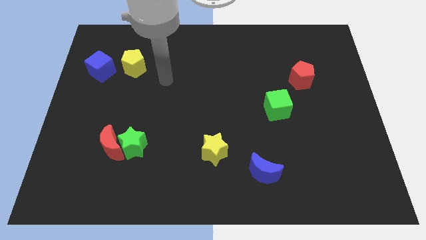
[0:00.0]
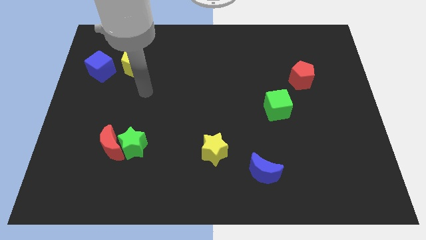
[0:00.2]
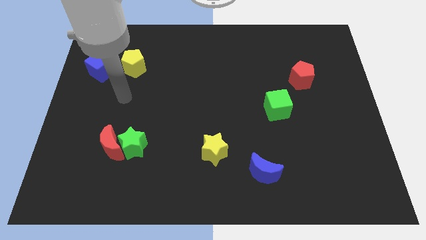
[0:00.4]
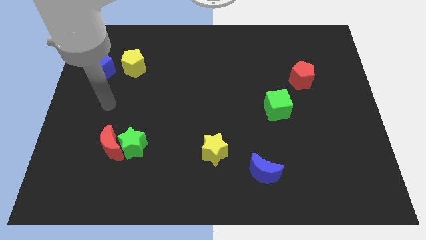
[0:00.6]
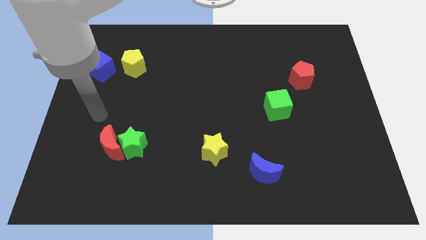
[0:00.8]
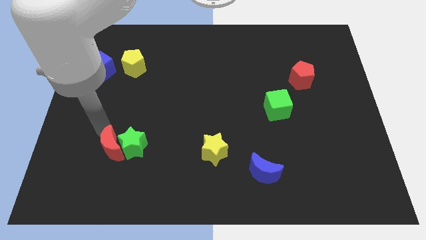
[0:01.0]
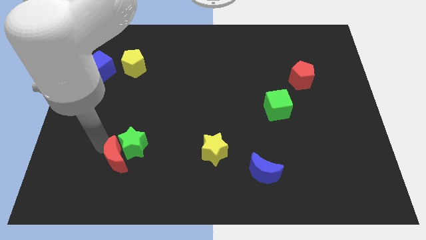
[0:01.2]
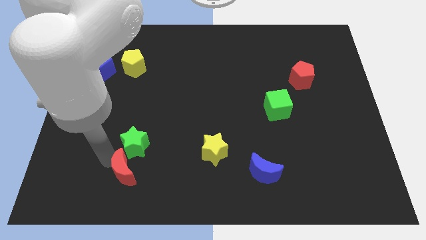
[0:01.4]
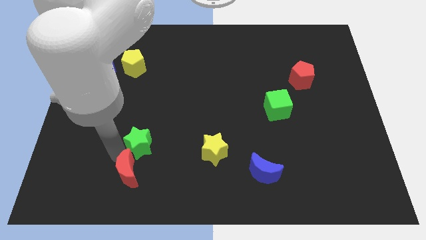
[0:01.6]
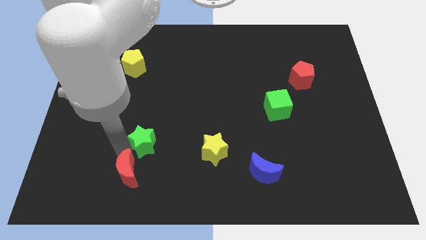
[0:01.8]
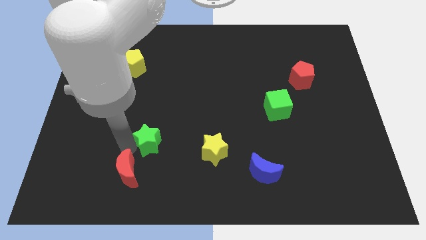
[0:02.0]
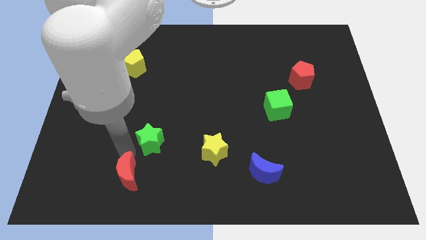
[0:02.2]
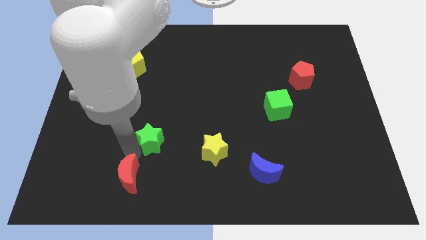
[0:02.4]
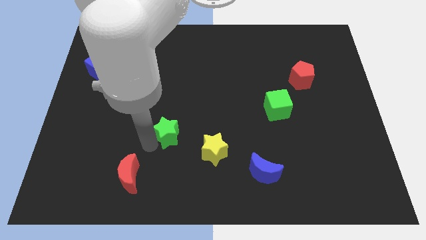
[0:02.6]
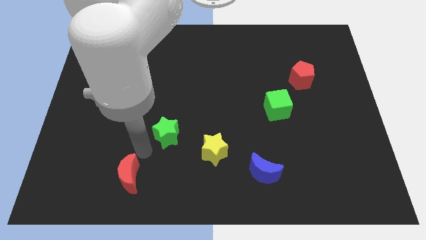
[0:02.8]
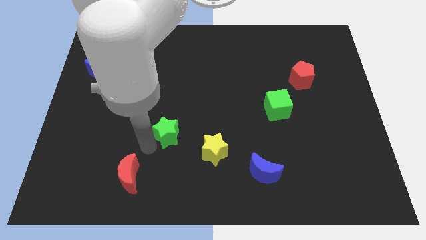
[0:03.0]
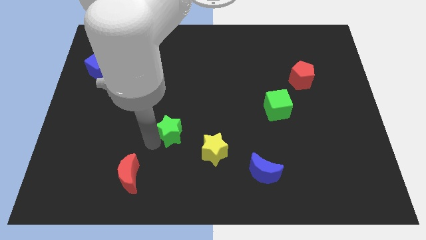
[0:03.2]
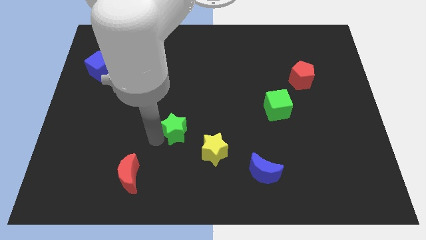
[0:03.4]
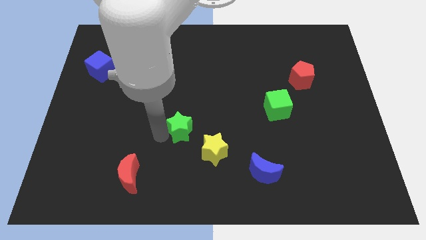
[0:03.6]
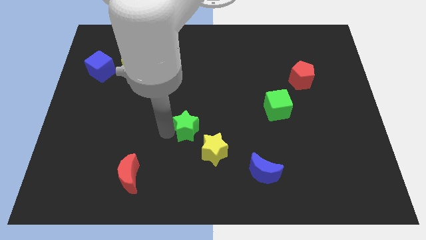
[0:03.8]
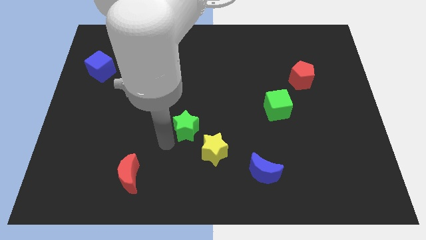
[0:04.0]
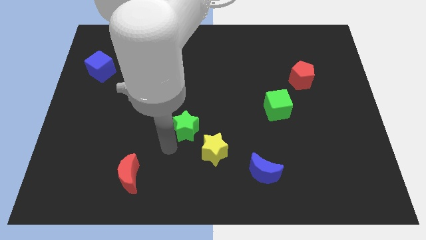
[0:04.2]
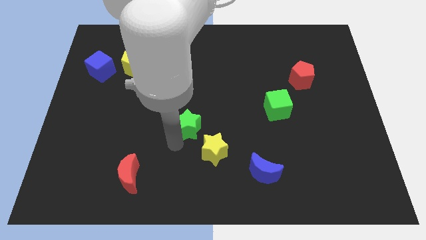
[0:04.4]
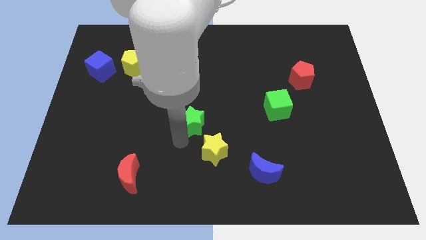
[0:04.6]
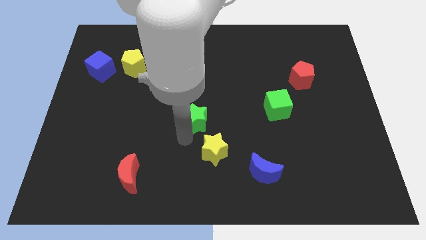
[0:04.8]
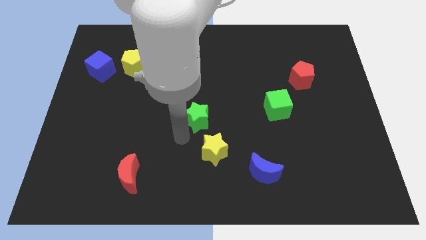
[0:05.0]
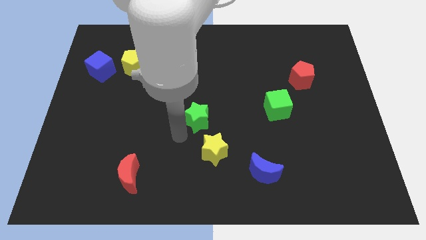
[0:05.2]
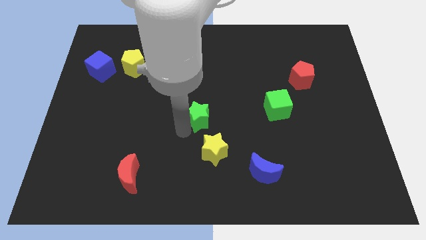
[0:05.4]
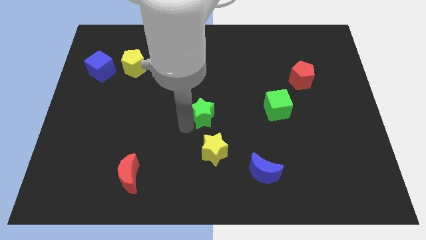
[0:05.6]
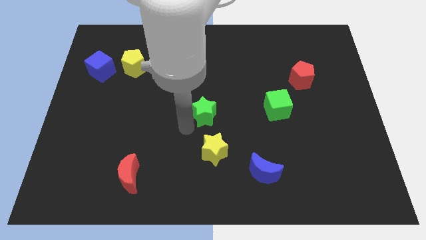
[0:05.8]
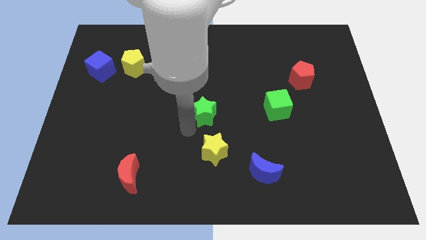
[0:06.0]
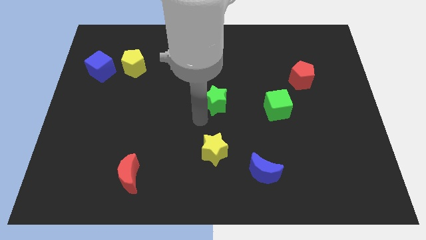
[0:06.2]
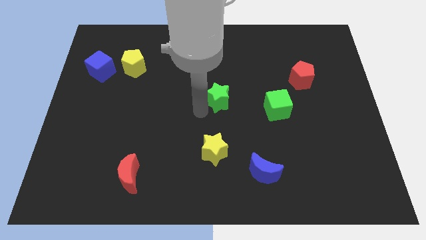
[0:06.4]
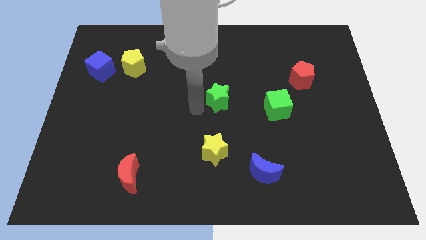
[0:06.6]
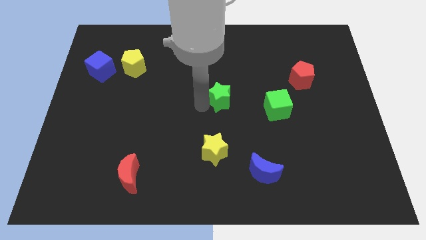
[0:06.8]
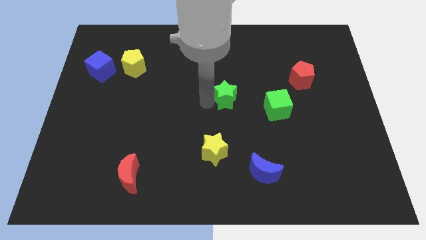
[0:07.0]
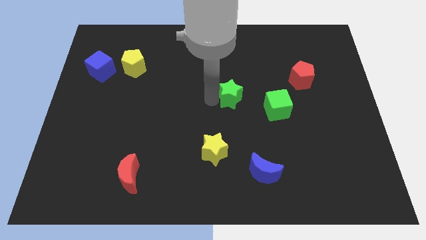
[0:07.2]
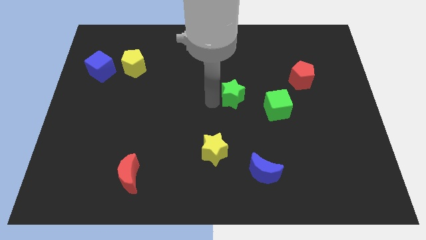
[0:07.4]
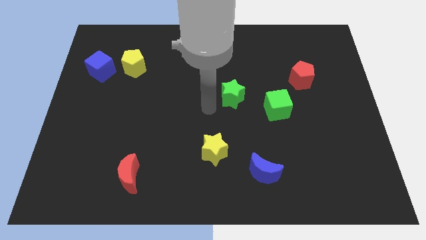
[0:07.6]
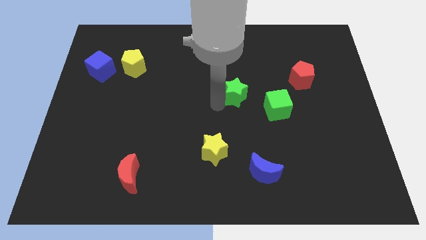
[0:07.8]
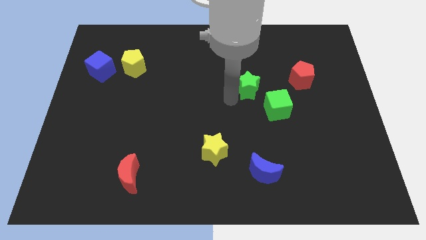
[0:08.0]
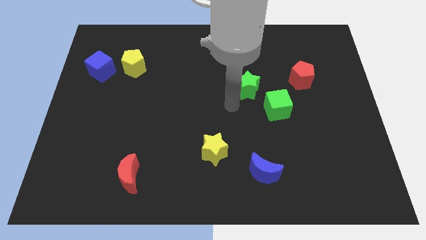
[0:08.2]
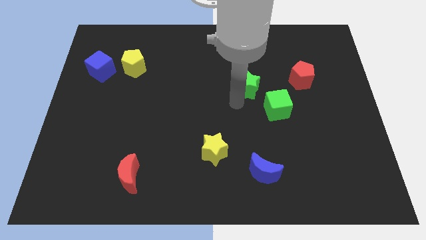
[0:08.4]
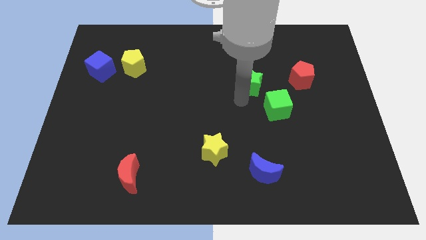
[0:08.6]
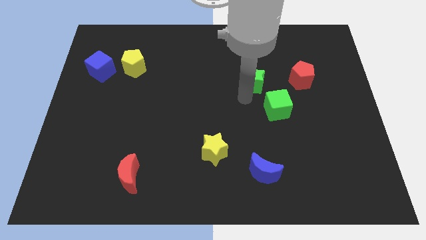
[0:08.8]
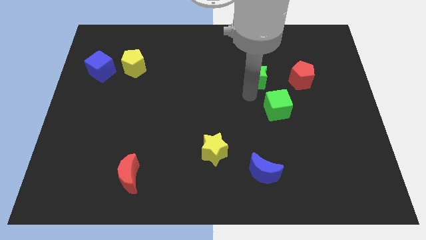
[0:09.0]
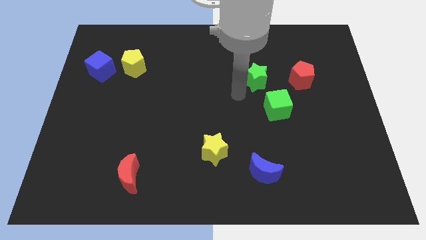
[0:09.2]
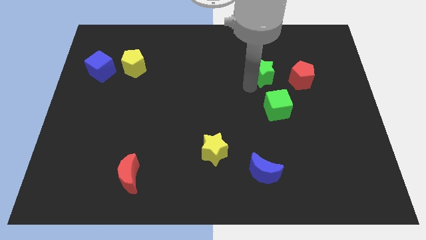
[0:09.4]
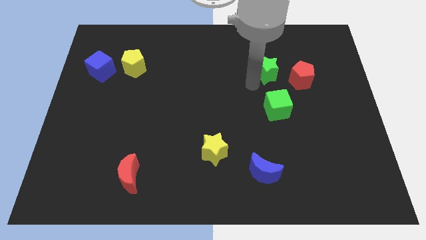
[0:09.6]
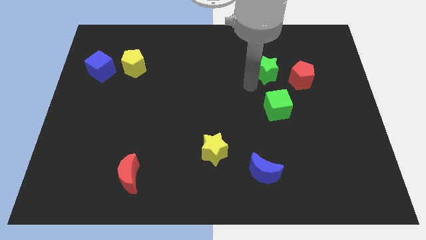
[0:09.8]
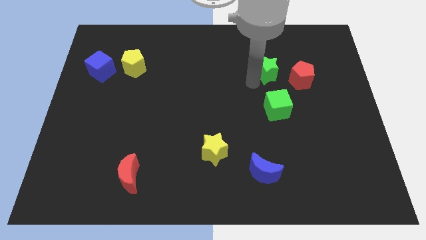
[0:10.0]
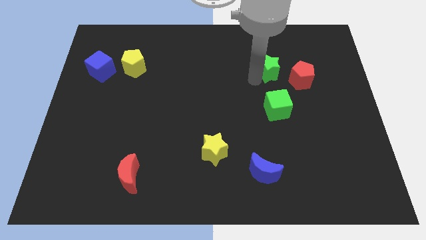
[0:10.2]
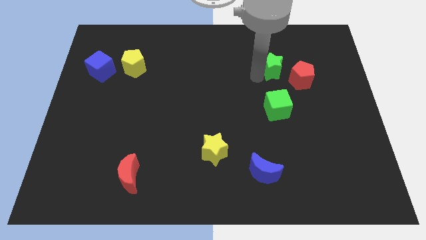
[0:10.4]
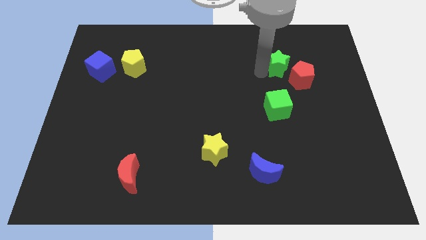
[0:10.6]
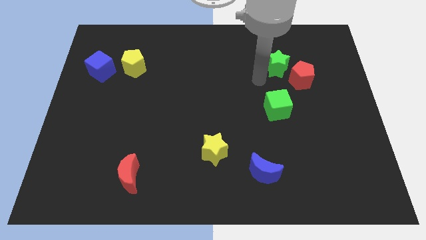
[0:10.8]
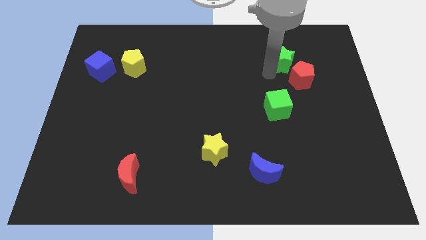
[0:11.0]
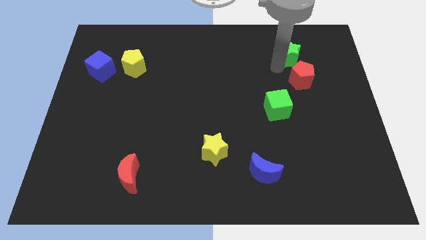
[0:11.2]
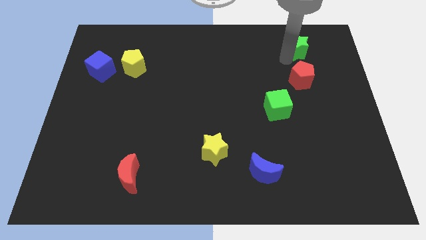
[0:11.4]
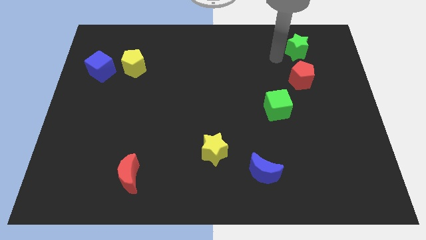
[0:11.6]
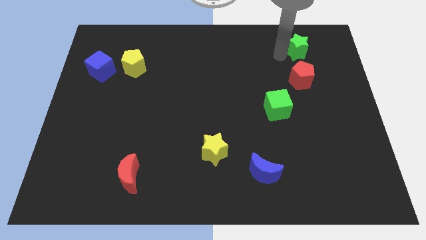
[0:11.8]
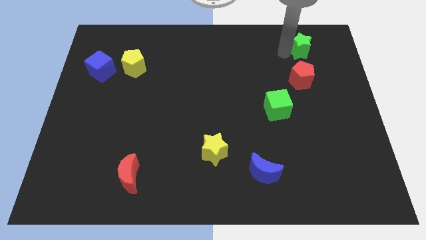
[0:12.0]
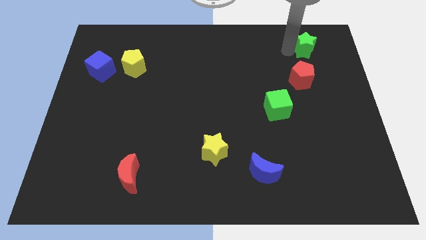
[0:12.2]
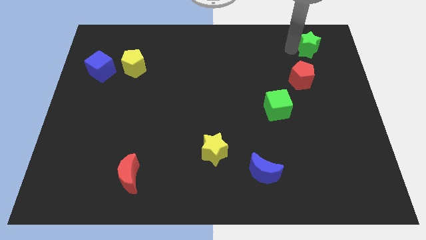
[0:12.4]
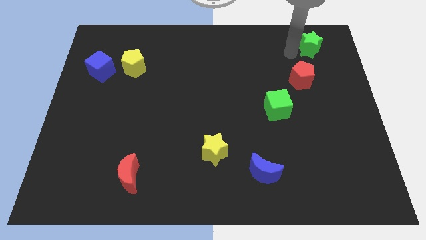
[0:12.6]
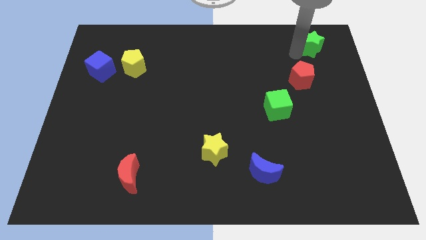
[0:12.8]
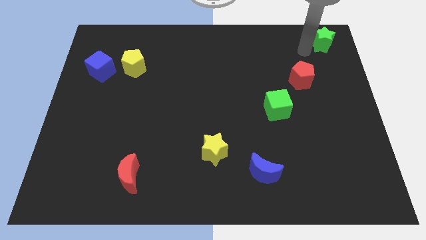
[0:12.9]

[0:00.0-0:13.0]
push the green star to the top right
